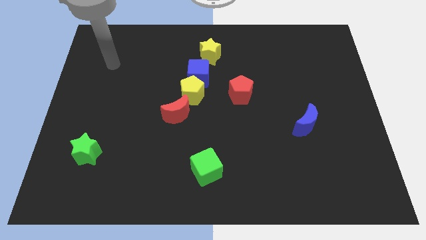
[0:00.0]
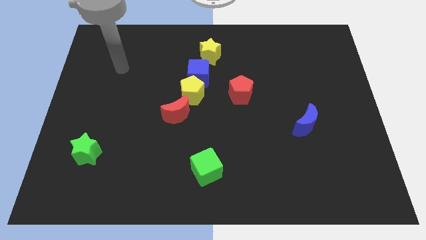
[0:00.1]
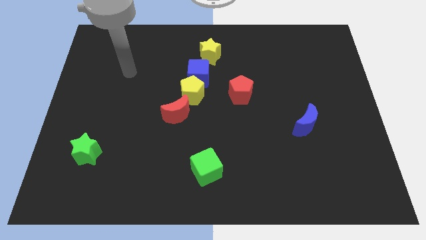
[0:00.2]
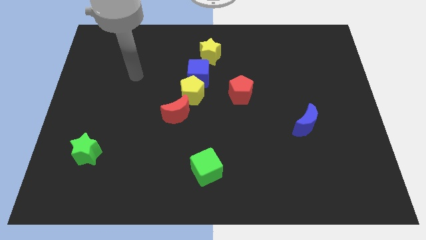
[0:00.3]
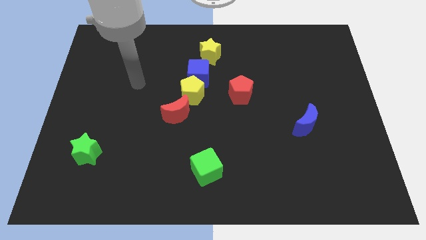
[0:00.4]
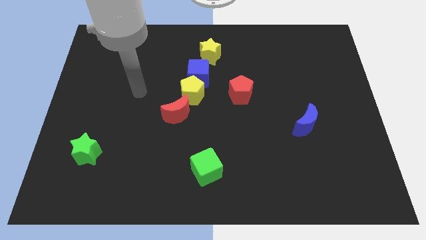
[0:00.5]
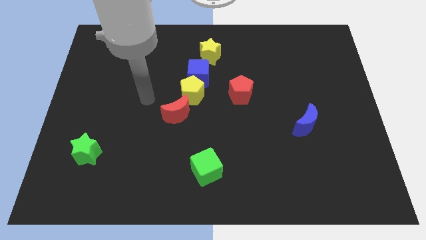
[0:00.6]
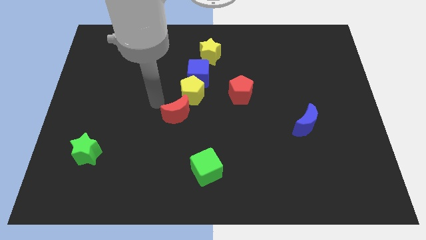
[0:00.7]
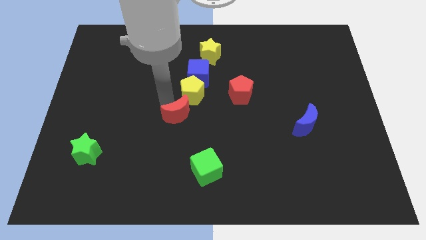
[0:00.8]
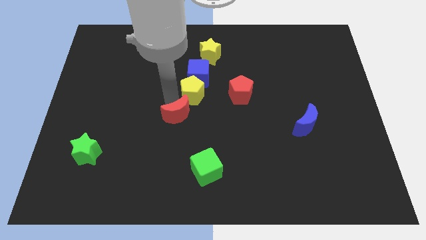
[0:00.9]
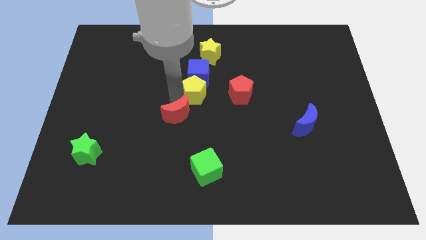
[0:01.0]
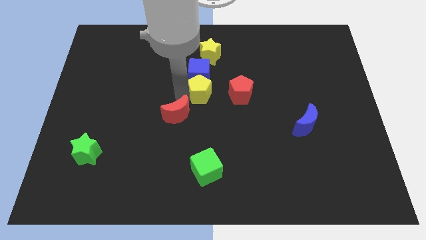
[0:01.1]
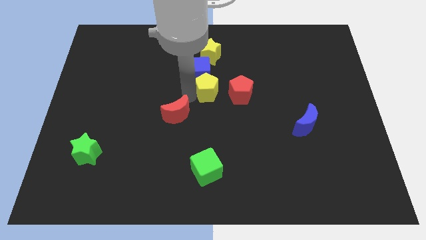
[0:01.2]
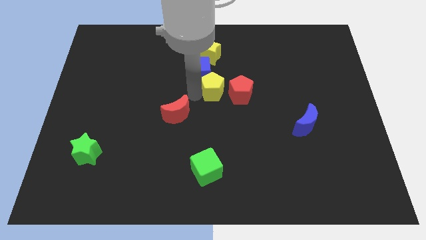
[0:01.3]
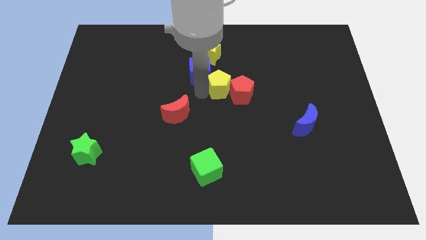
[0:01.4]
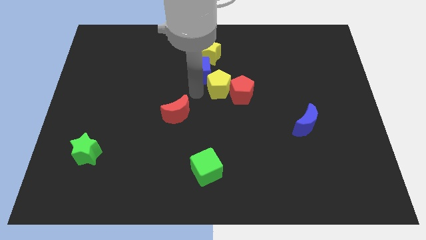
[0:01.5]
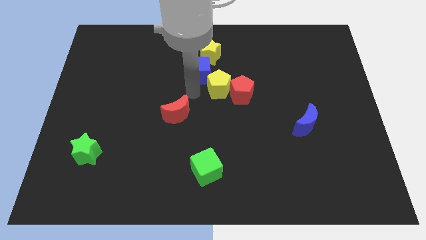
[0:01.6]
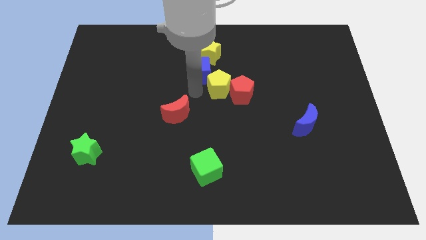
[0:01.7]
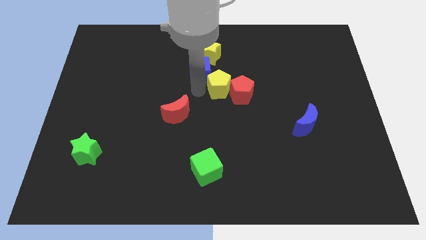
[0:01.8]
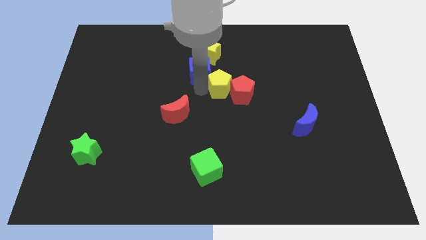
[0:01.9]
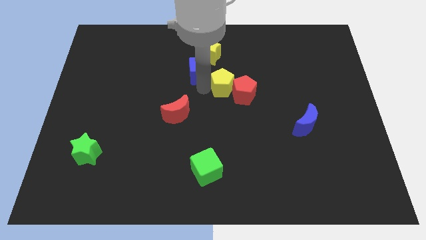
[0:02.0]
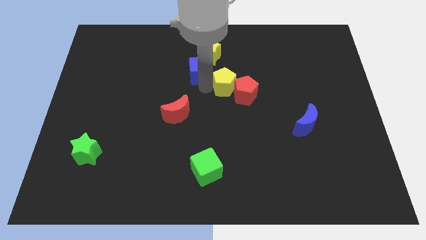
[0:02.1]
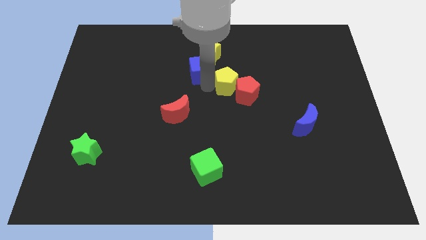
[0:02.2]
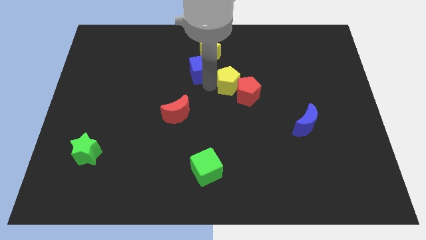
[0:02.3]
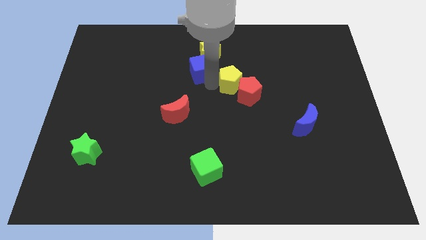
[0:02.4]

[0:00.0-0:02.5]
pull the yellow pentagon apart from the blue cube and red moon

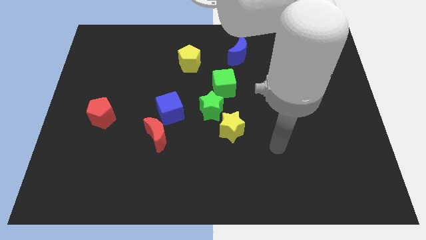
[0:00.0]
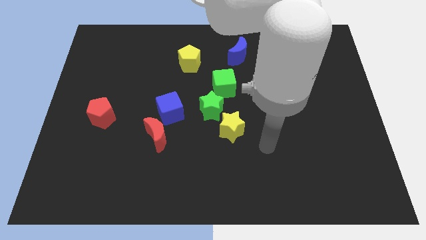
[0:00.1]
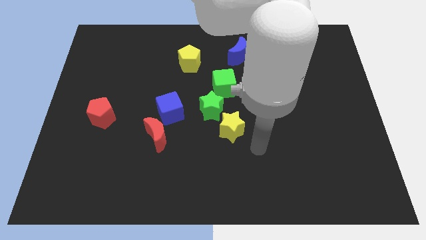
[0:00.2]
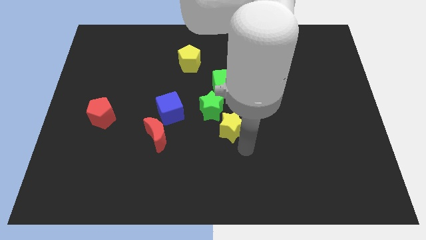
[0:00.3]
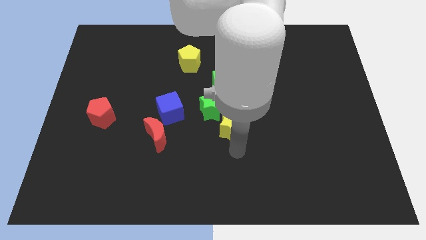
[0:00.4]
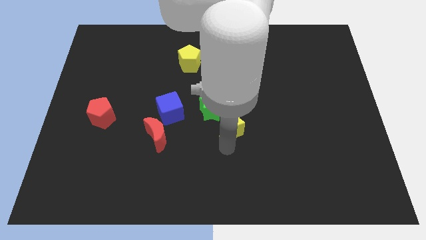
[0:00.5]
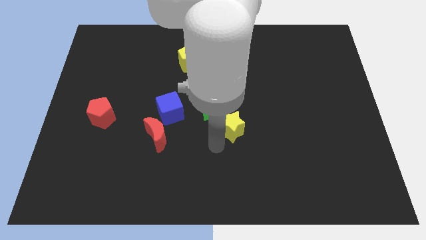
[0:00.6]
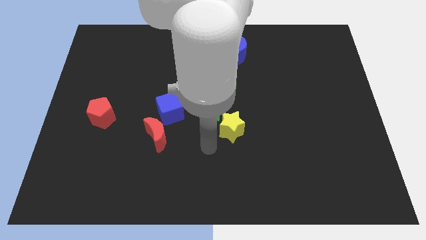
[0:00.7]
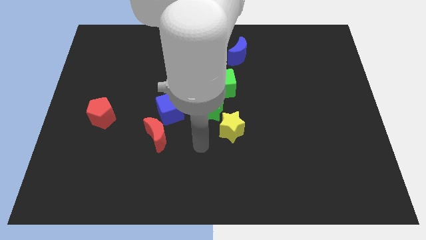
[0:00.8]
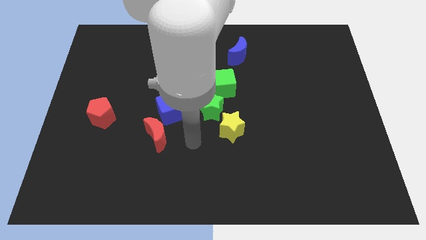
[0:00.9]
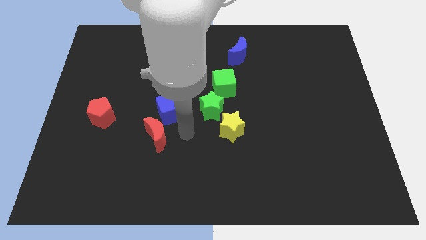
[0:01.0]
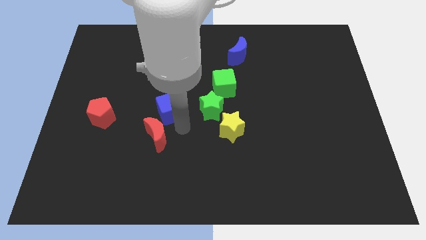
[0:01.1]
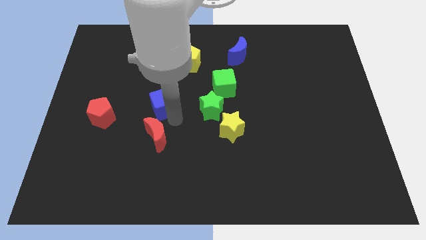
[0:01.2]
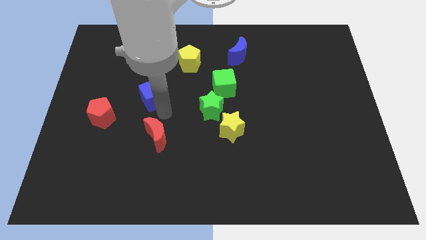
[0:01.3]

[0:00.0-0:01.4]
pull the red moon apart from the blue cube

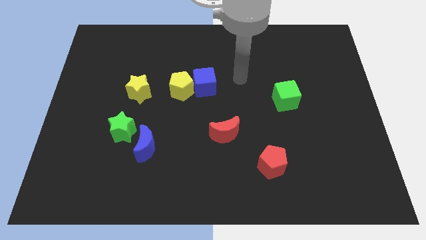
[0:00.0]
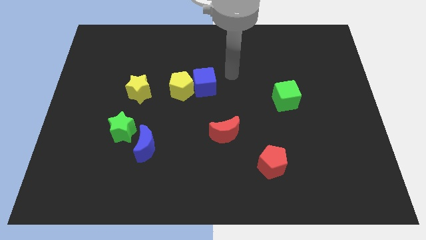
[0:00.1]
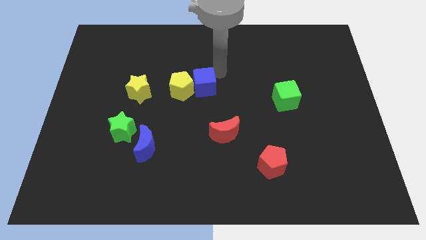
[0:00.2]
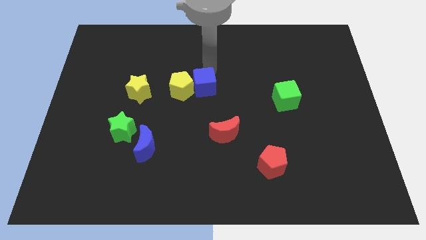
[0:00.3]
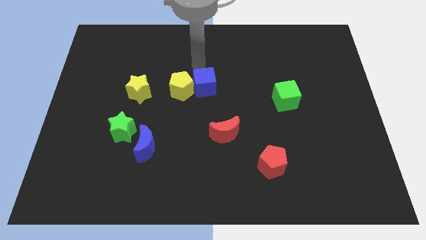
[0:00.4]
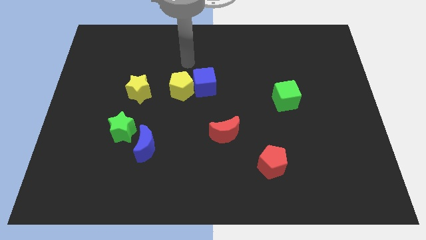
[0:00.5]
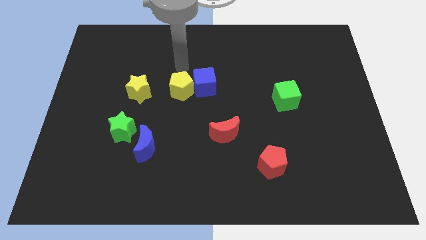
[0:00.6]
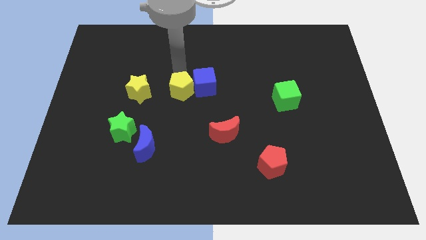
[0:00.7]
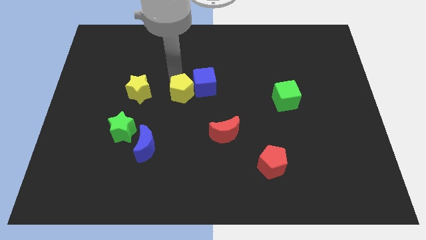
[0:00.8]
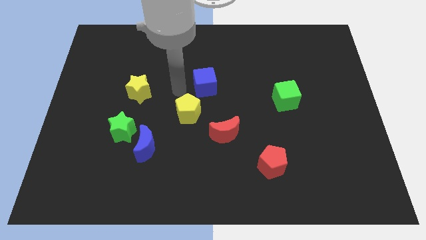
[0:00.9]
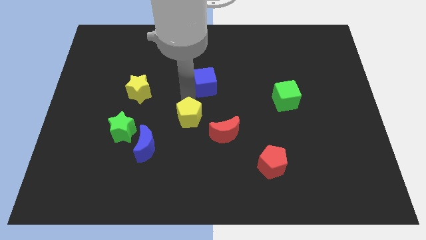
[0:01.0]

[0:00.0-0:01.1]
separate the blue cube from the yellow pentagon

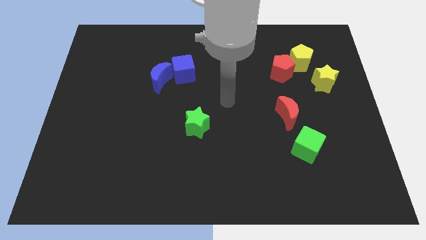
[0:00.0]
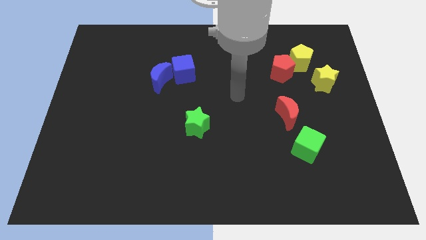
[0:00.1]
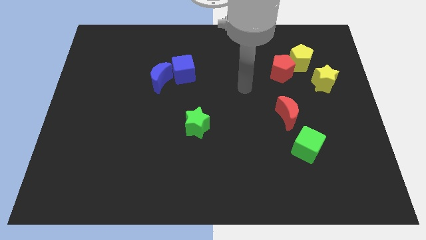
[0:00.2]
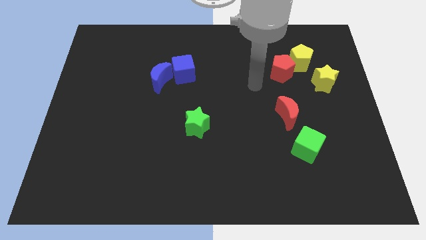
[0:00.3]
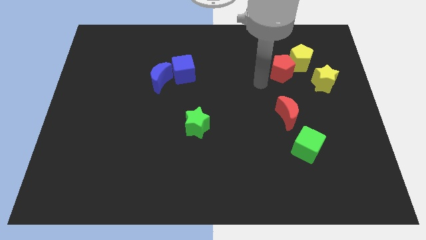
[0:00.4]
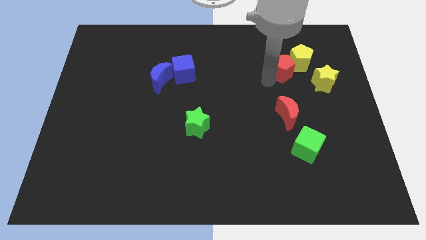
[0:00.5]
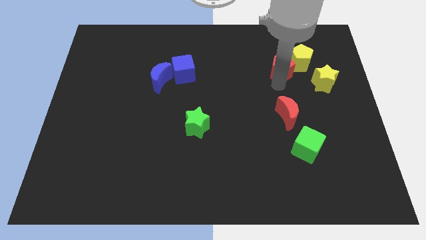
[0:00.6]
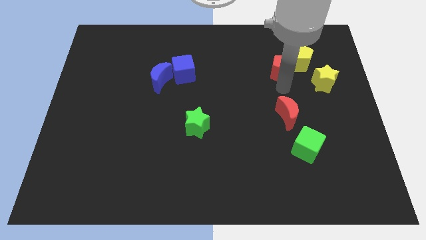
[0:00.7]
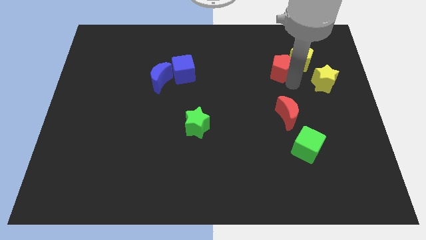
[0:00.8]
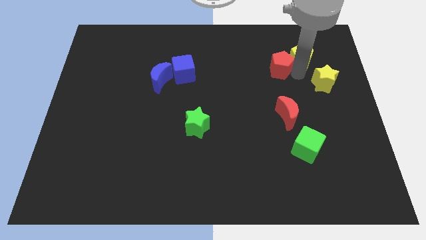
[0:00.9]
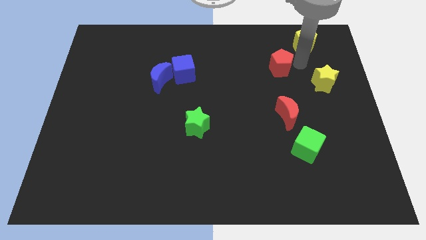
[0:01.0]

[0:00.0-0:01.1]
separate the red pentagon from the yellow pentagon

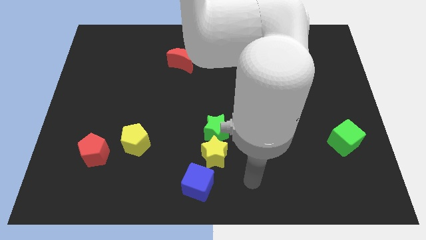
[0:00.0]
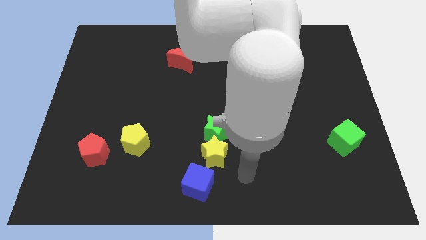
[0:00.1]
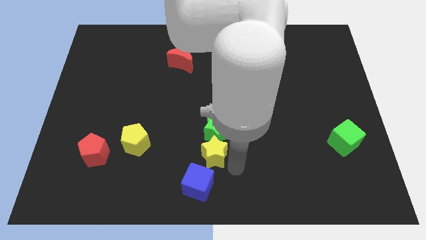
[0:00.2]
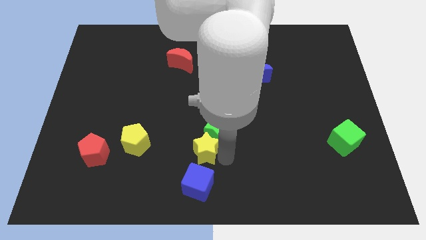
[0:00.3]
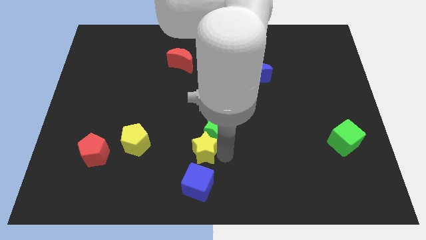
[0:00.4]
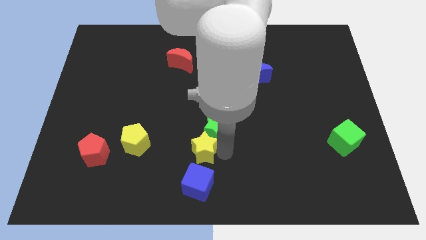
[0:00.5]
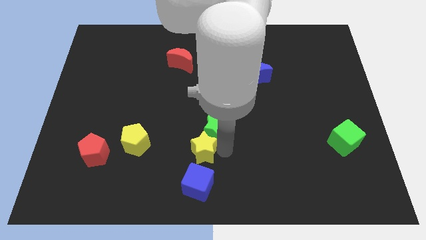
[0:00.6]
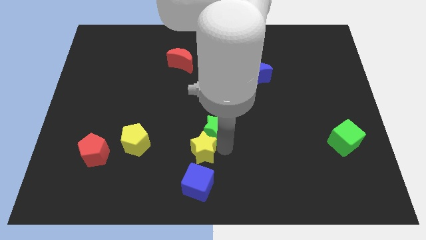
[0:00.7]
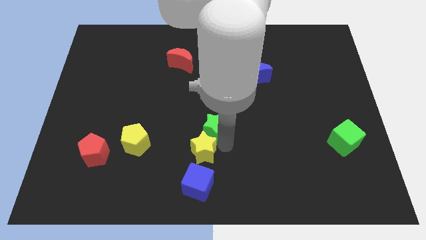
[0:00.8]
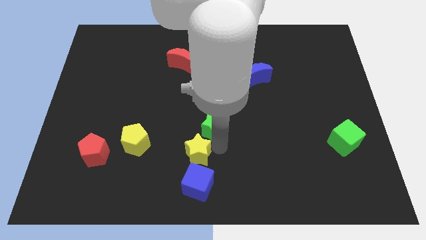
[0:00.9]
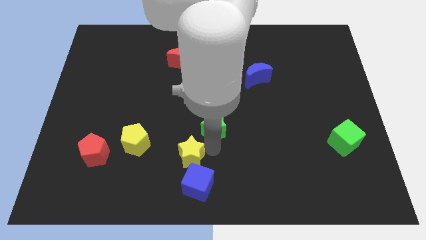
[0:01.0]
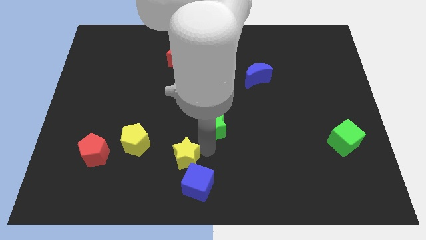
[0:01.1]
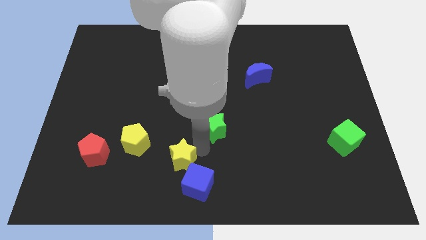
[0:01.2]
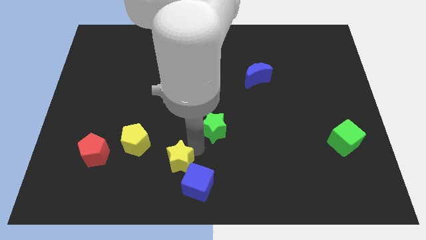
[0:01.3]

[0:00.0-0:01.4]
pull the green star apart from the yellow star

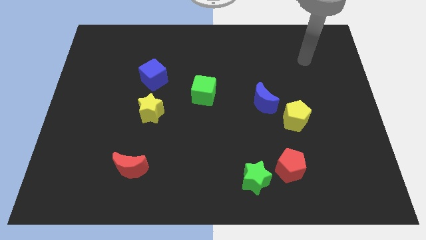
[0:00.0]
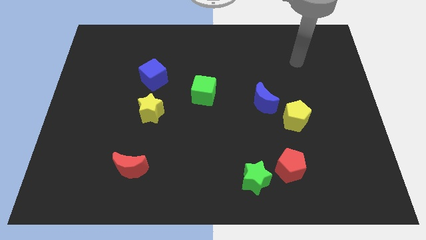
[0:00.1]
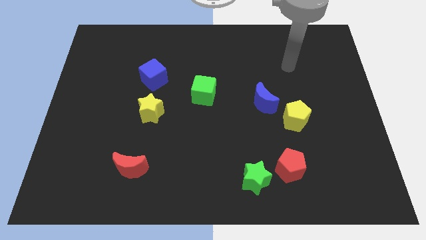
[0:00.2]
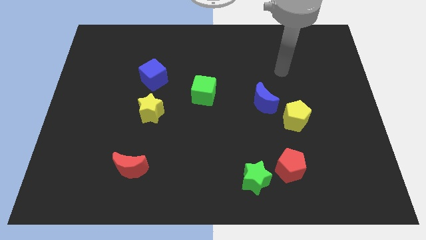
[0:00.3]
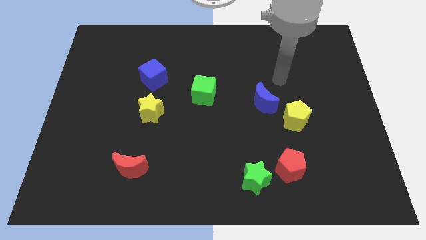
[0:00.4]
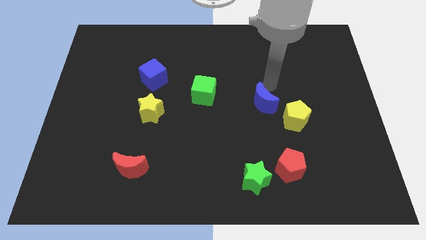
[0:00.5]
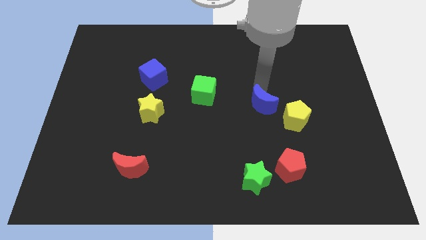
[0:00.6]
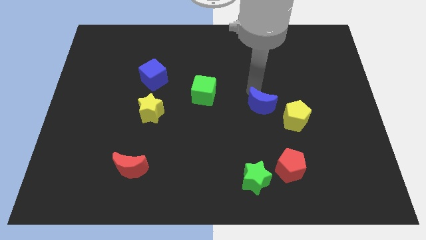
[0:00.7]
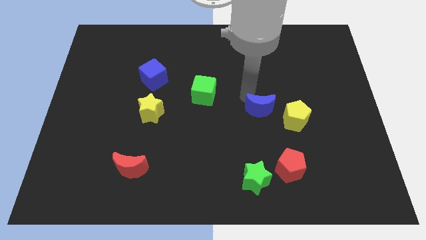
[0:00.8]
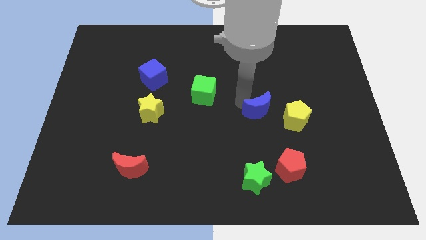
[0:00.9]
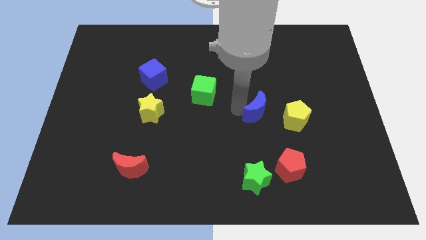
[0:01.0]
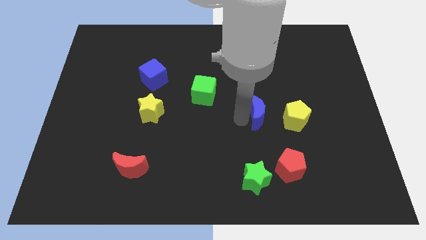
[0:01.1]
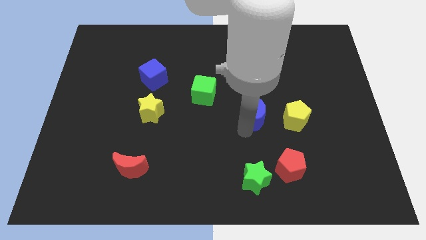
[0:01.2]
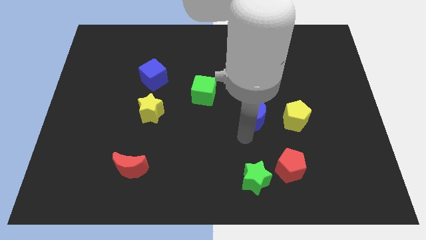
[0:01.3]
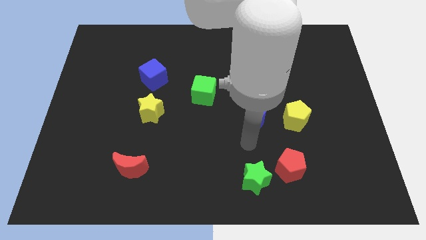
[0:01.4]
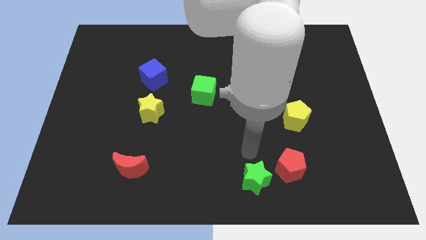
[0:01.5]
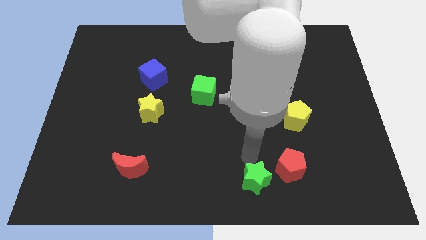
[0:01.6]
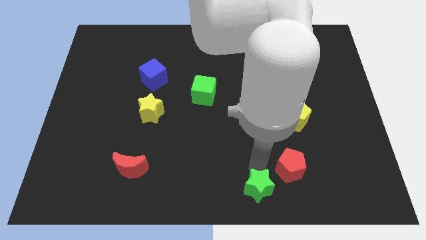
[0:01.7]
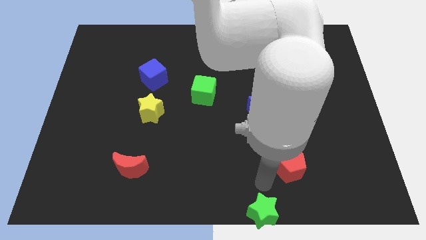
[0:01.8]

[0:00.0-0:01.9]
move the red pentagon away from the green star
